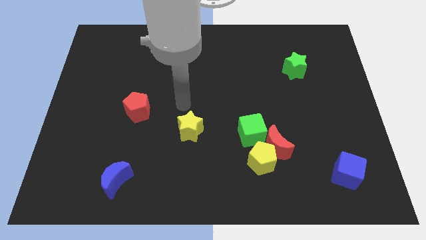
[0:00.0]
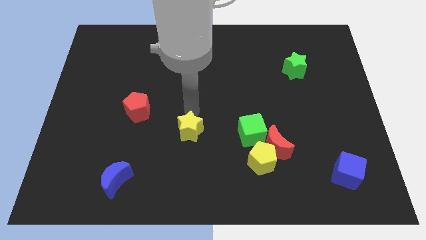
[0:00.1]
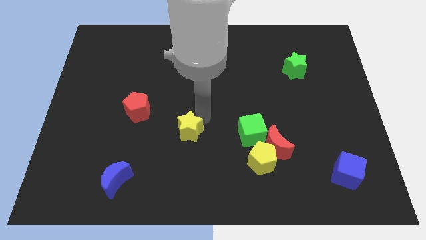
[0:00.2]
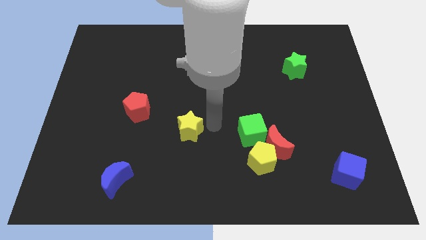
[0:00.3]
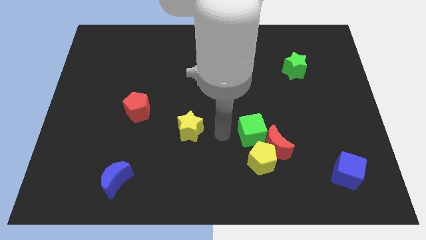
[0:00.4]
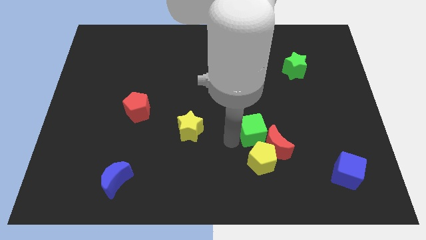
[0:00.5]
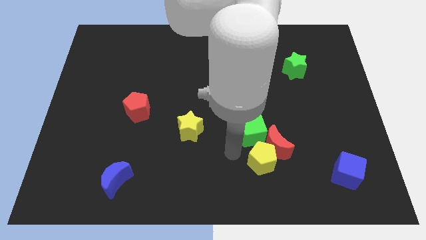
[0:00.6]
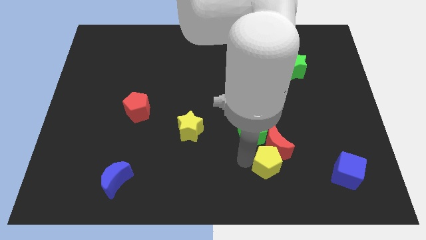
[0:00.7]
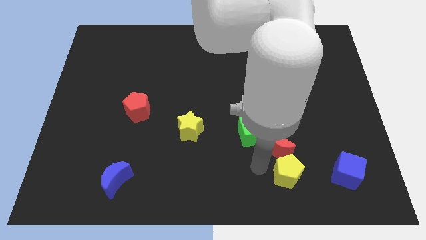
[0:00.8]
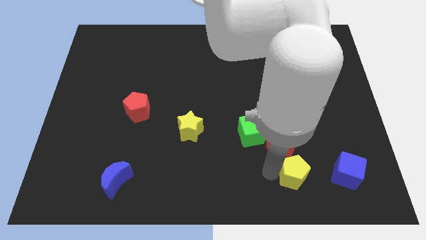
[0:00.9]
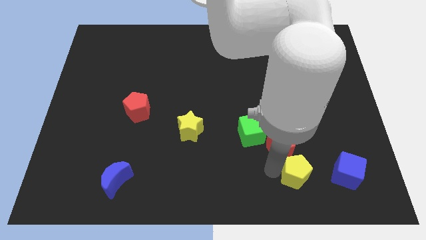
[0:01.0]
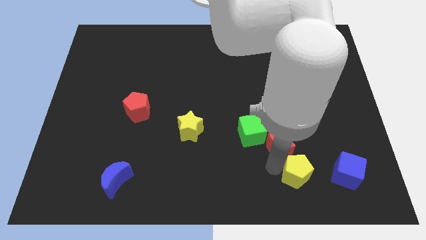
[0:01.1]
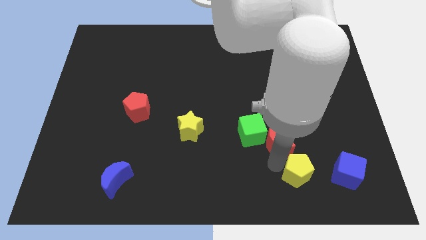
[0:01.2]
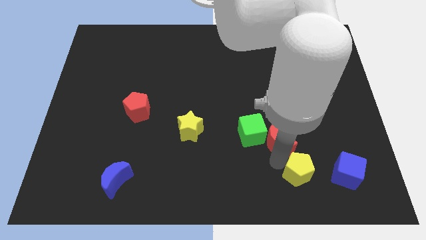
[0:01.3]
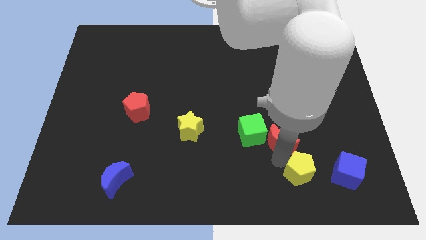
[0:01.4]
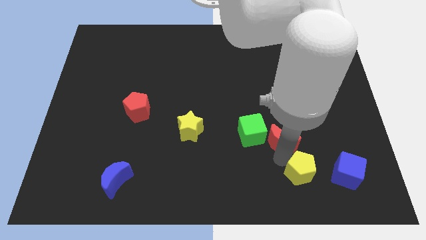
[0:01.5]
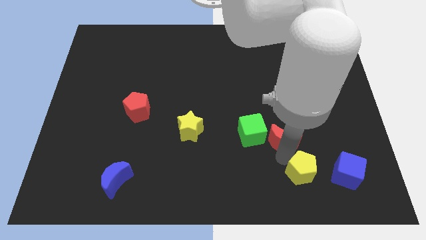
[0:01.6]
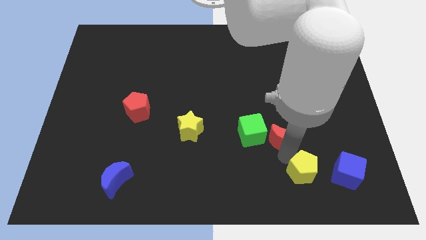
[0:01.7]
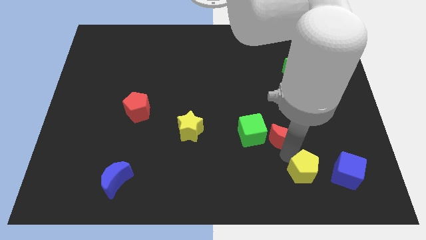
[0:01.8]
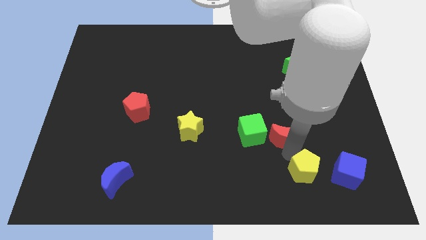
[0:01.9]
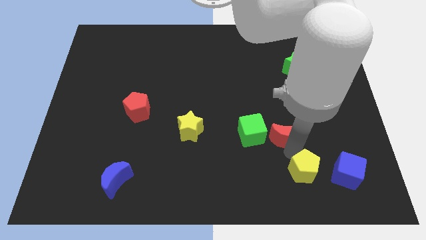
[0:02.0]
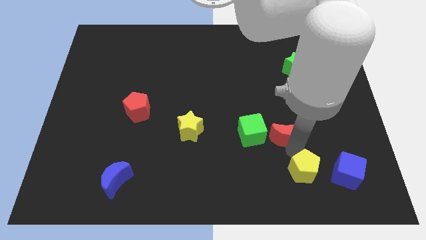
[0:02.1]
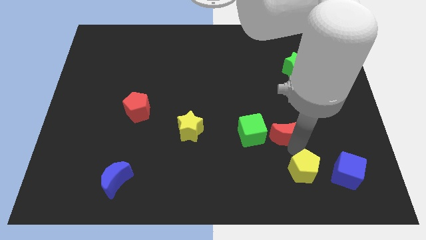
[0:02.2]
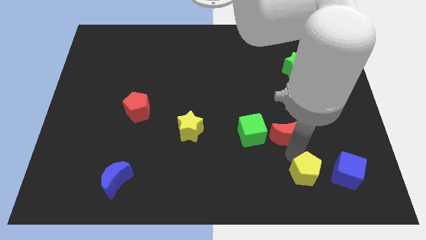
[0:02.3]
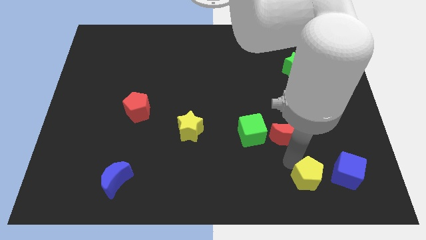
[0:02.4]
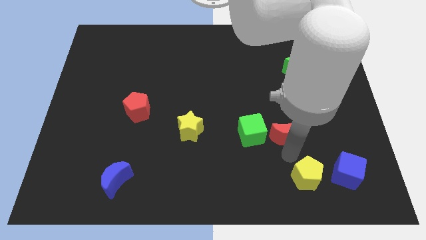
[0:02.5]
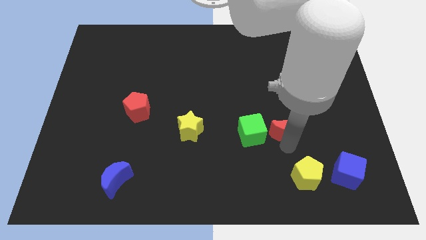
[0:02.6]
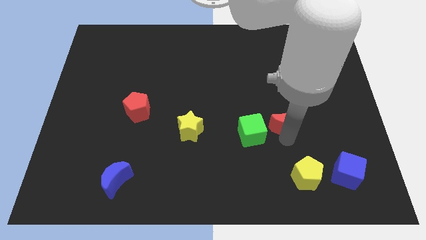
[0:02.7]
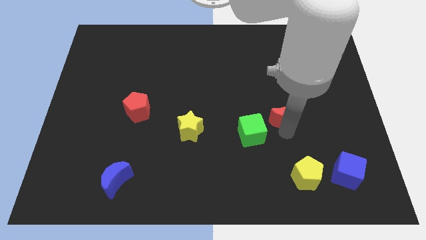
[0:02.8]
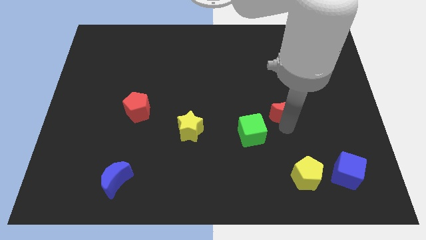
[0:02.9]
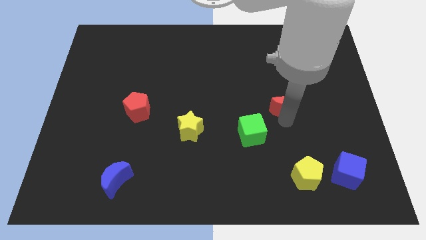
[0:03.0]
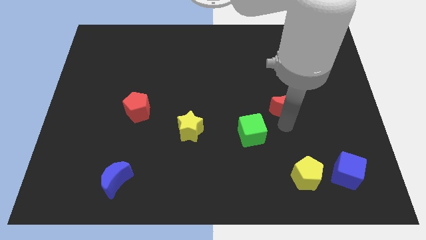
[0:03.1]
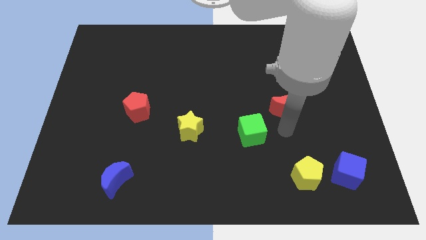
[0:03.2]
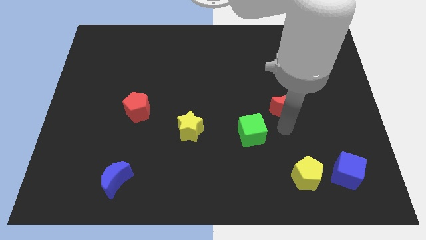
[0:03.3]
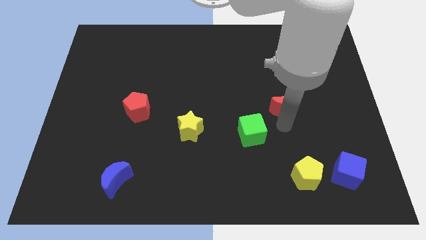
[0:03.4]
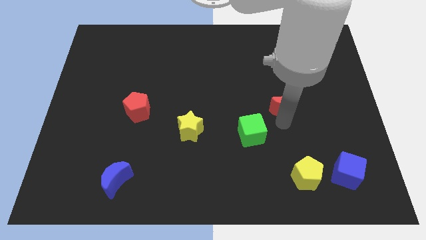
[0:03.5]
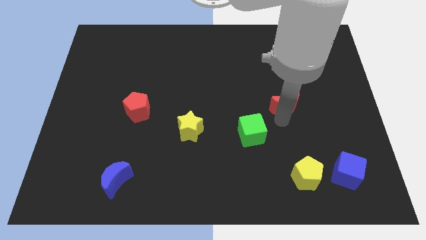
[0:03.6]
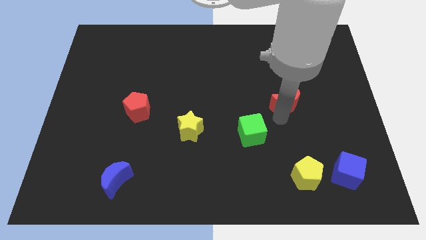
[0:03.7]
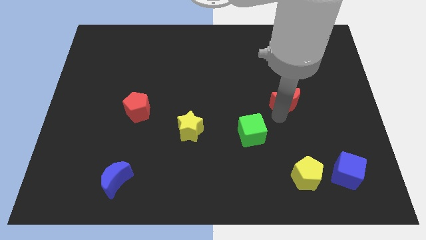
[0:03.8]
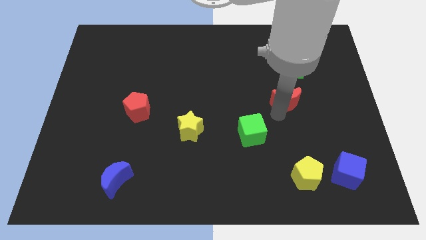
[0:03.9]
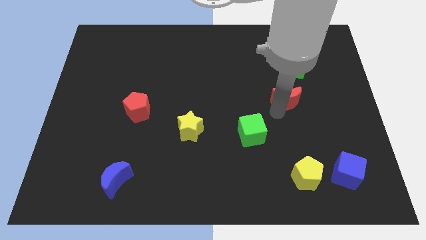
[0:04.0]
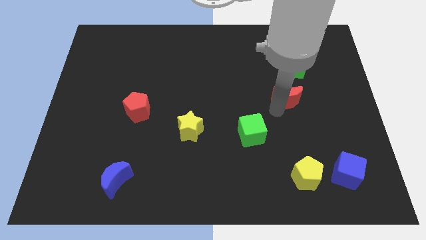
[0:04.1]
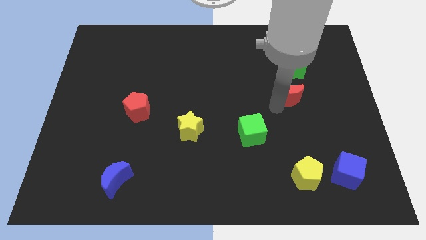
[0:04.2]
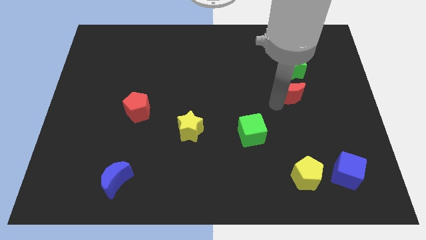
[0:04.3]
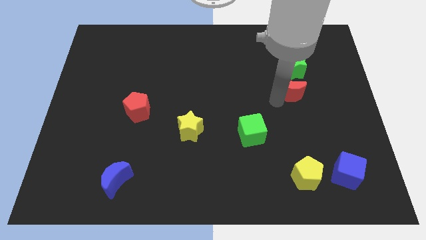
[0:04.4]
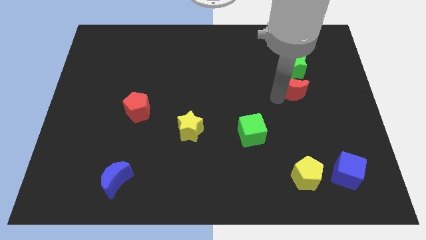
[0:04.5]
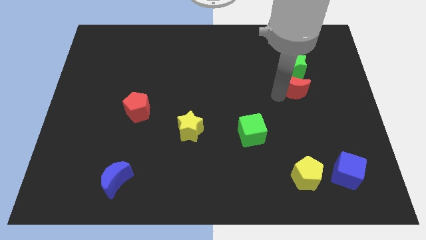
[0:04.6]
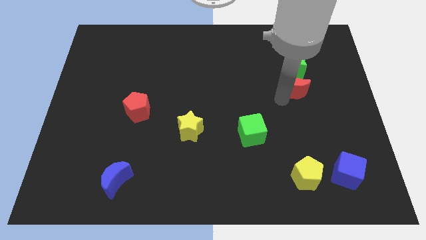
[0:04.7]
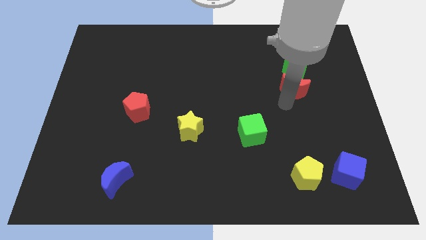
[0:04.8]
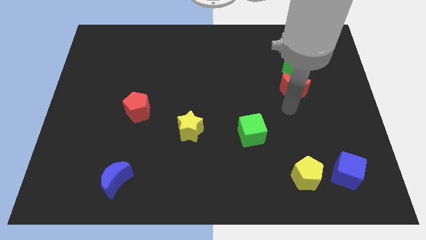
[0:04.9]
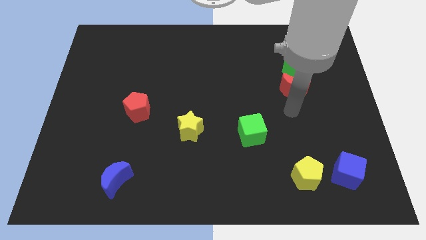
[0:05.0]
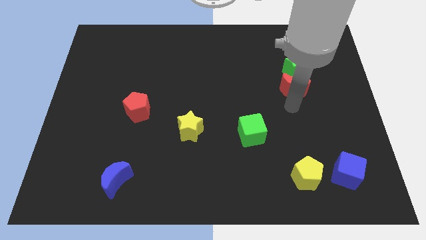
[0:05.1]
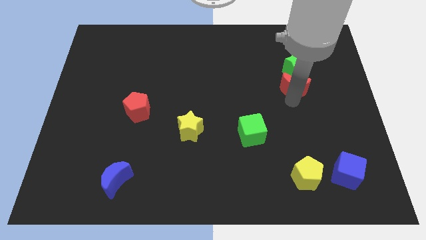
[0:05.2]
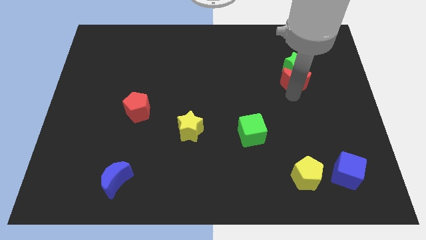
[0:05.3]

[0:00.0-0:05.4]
put the red moon to the green star

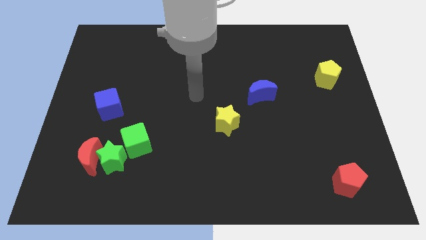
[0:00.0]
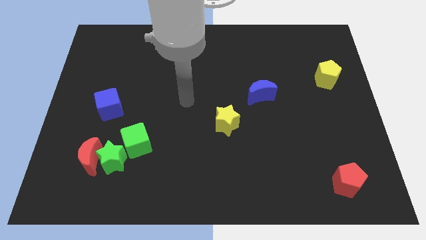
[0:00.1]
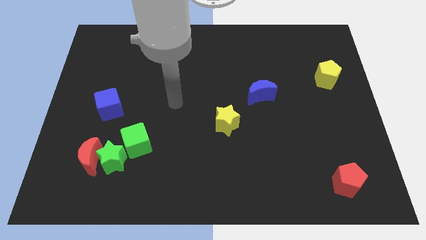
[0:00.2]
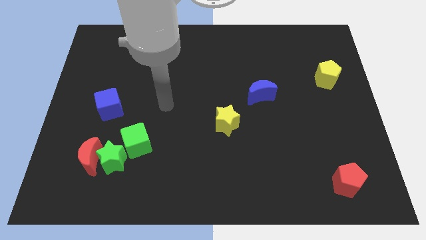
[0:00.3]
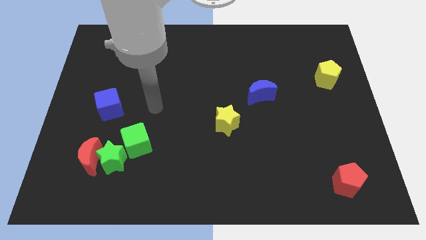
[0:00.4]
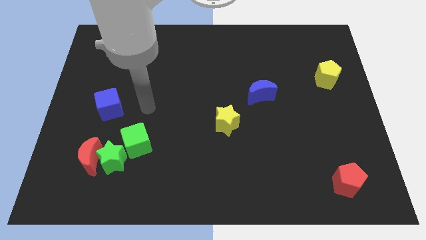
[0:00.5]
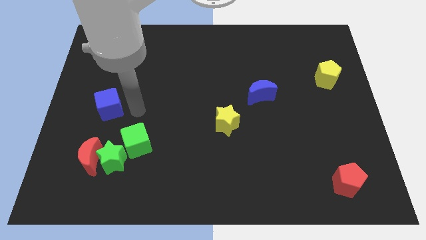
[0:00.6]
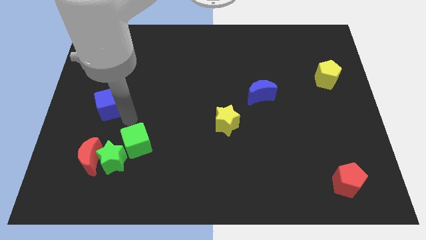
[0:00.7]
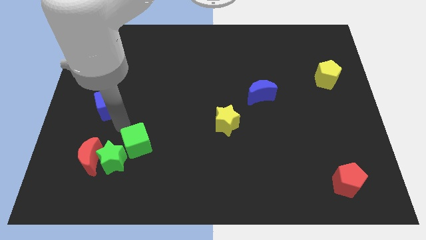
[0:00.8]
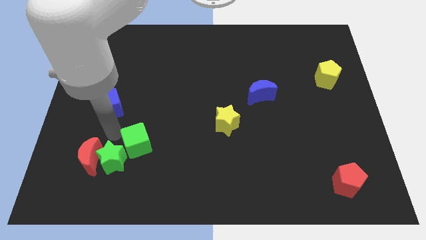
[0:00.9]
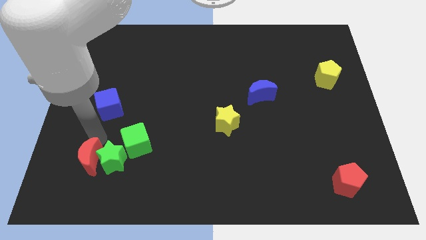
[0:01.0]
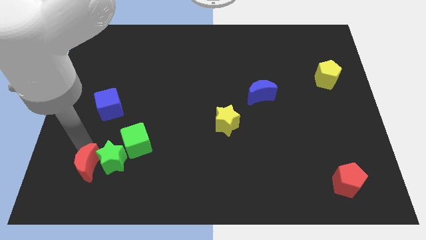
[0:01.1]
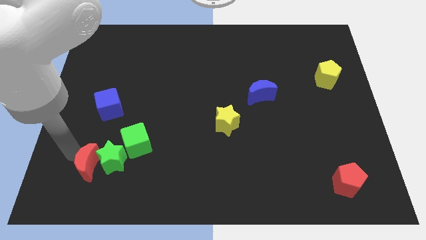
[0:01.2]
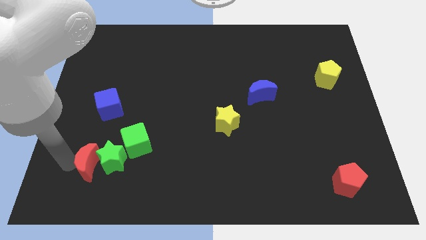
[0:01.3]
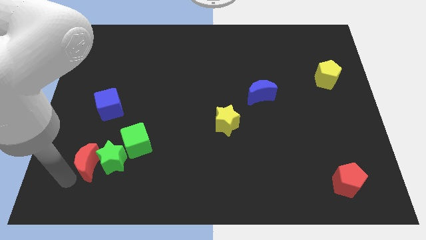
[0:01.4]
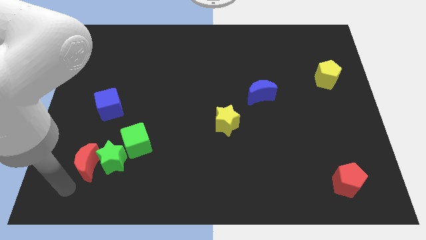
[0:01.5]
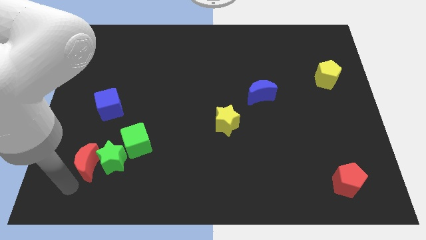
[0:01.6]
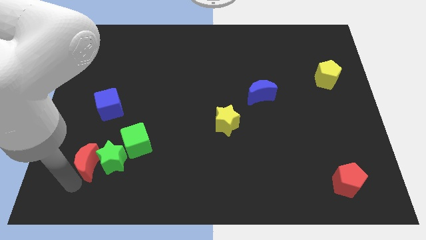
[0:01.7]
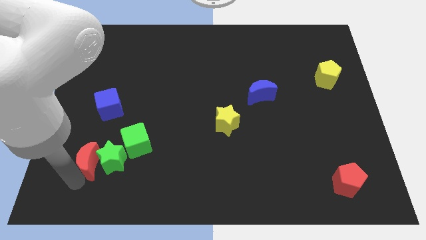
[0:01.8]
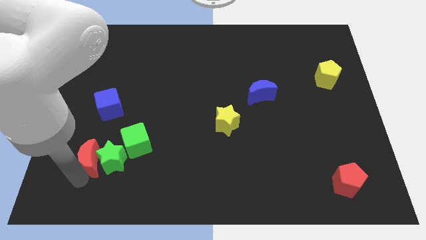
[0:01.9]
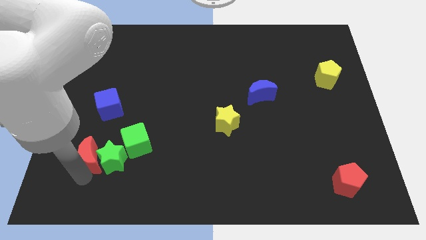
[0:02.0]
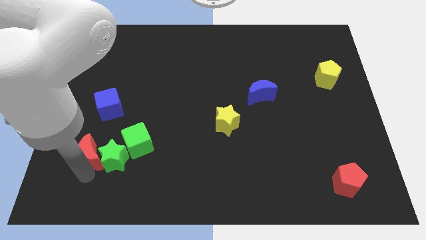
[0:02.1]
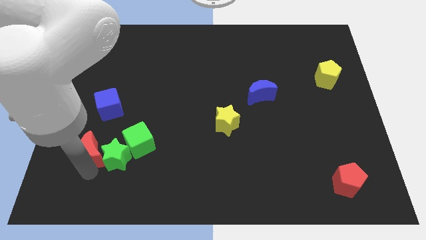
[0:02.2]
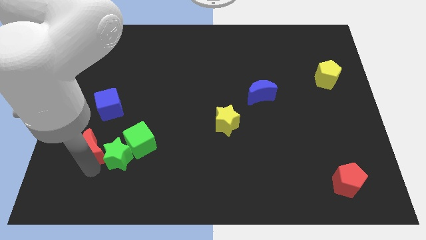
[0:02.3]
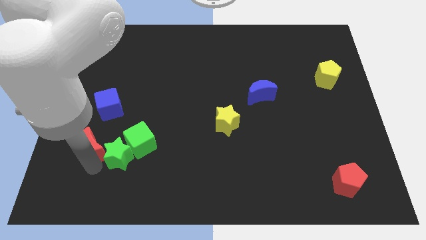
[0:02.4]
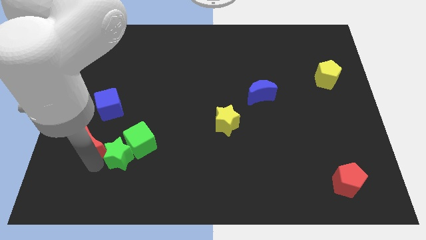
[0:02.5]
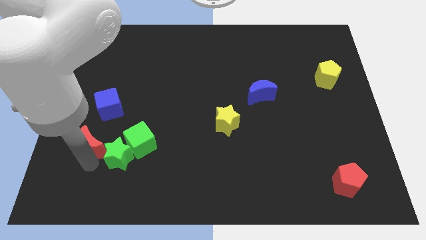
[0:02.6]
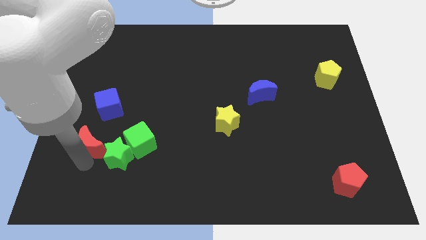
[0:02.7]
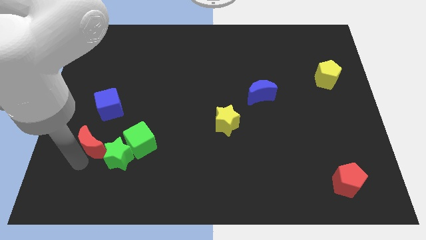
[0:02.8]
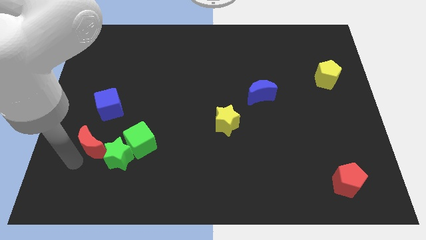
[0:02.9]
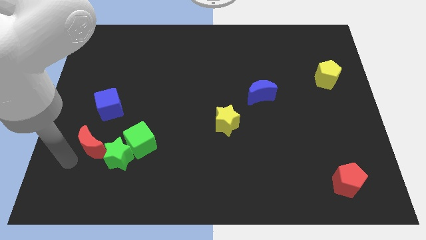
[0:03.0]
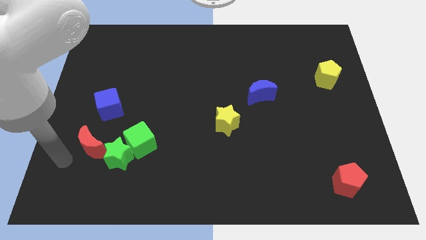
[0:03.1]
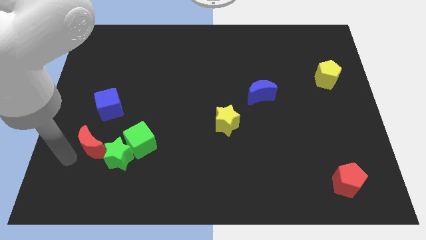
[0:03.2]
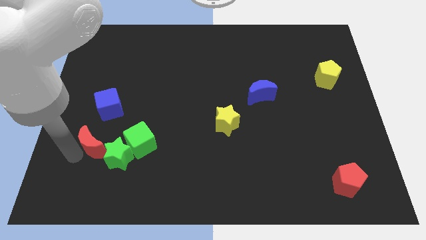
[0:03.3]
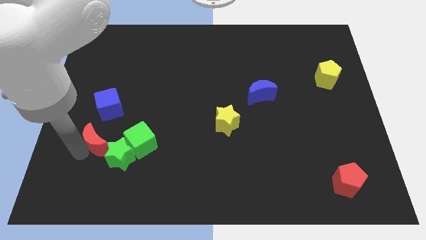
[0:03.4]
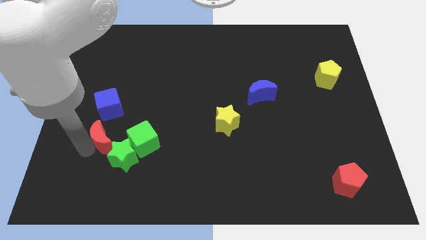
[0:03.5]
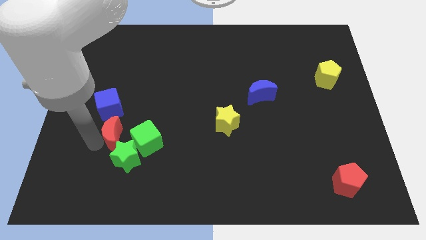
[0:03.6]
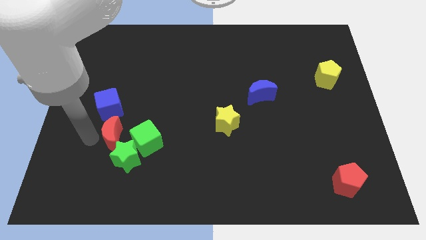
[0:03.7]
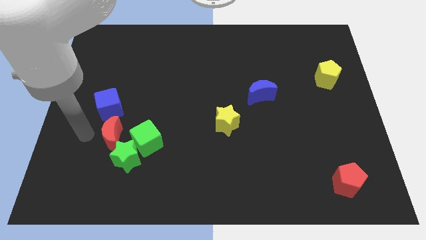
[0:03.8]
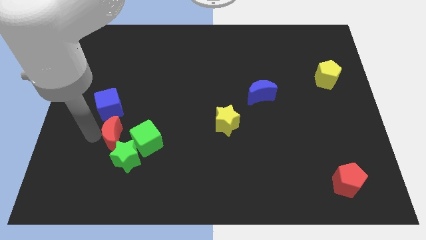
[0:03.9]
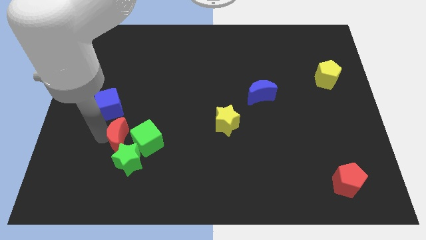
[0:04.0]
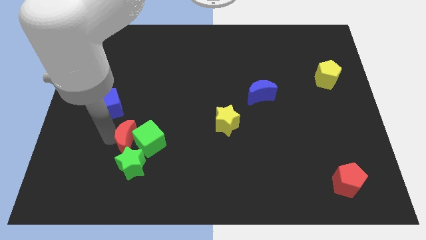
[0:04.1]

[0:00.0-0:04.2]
slide the red moon close to the green cube
